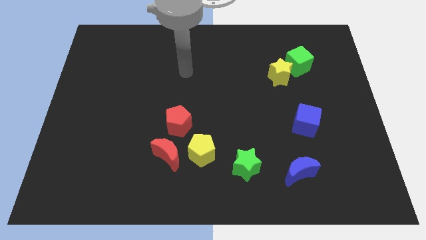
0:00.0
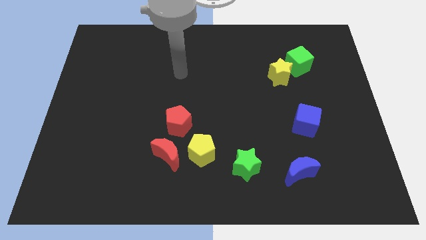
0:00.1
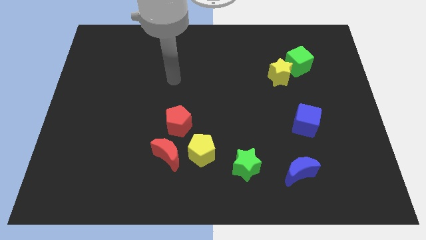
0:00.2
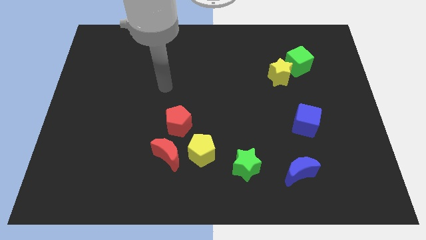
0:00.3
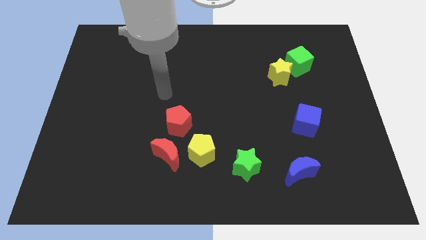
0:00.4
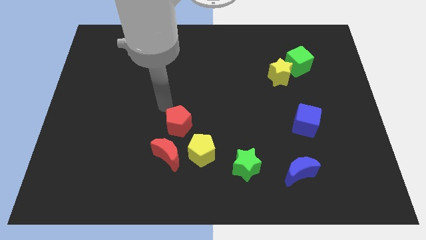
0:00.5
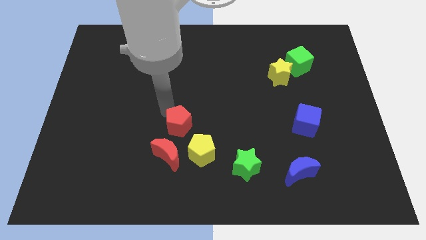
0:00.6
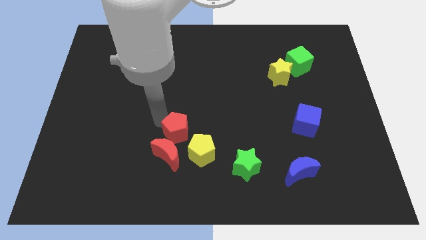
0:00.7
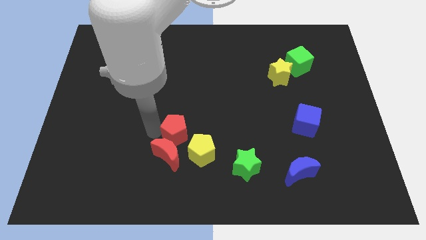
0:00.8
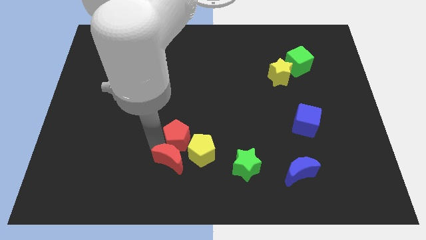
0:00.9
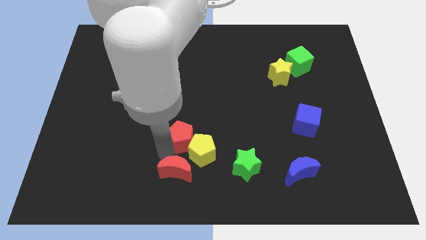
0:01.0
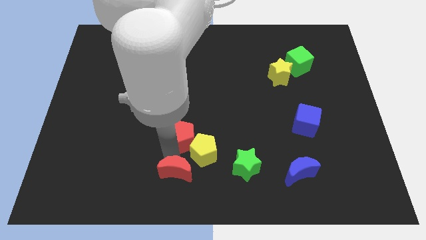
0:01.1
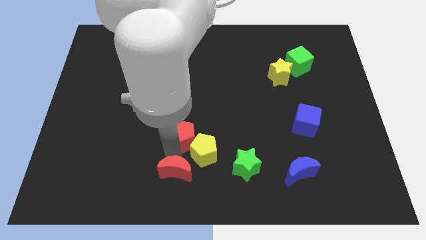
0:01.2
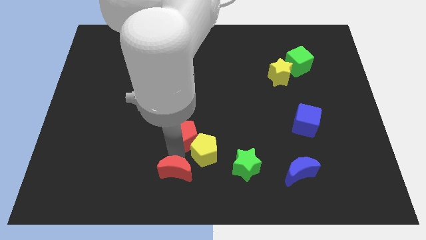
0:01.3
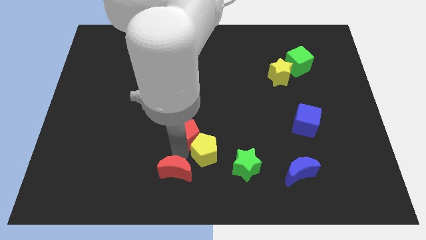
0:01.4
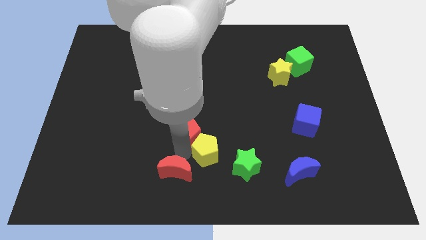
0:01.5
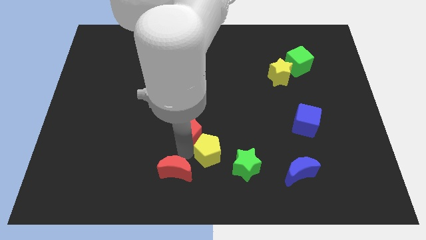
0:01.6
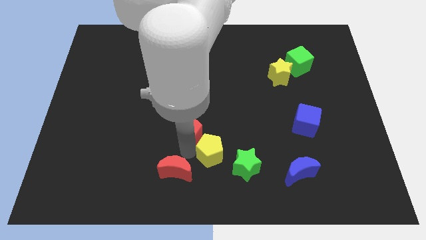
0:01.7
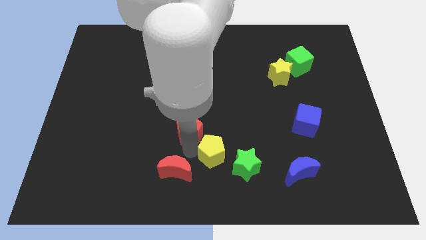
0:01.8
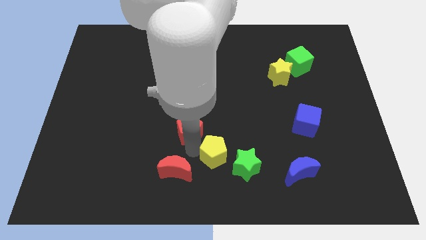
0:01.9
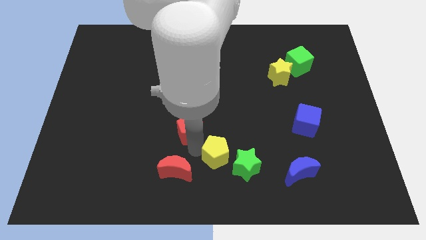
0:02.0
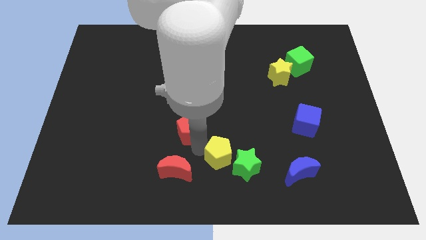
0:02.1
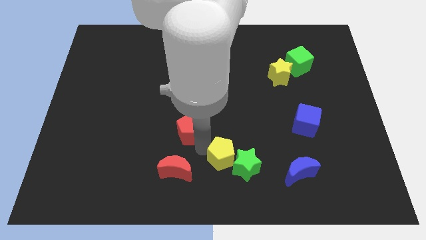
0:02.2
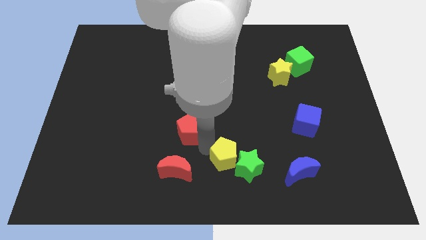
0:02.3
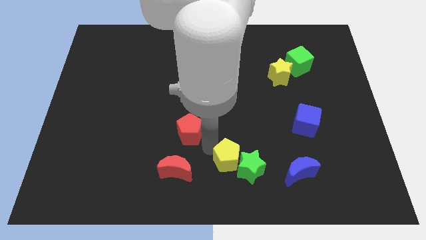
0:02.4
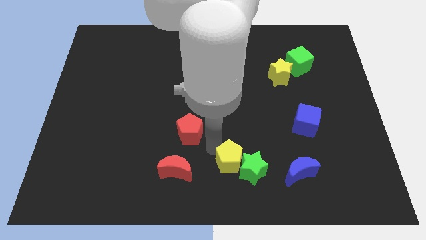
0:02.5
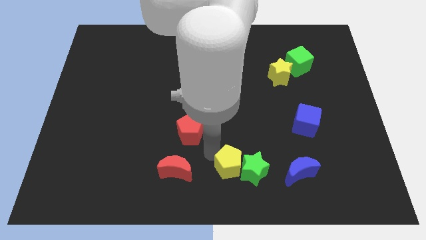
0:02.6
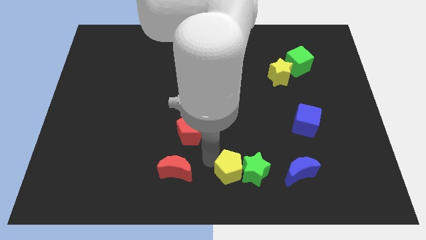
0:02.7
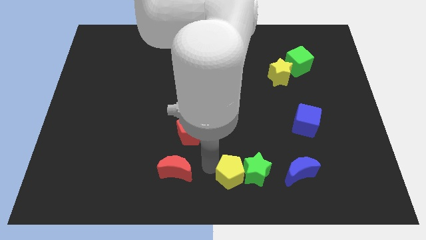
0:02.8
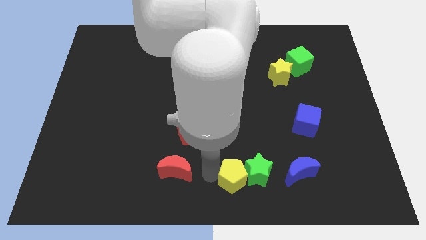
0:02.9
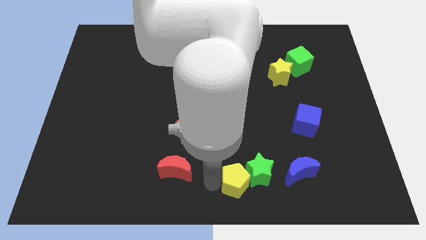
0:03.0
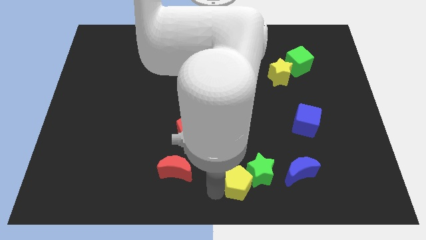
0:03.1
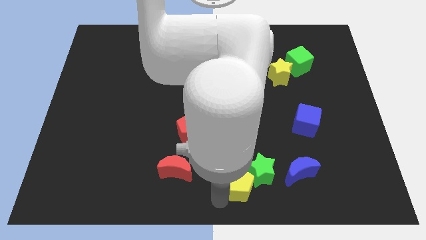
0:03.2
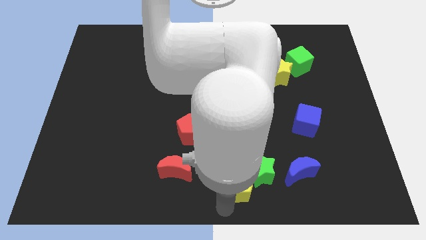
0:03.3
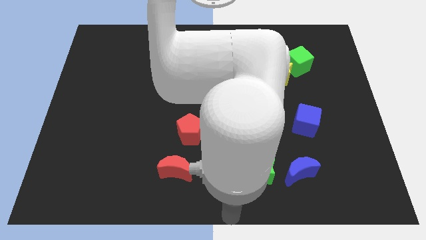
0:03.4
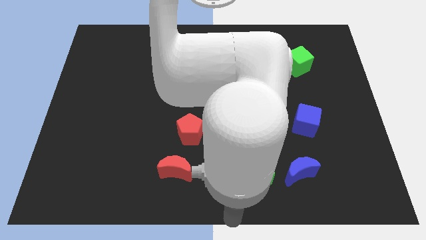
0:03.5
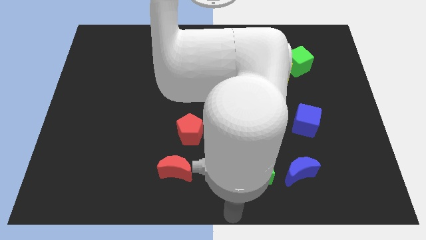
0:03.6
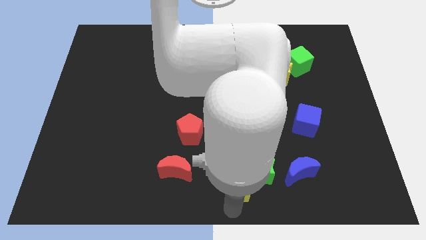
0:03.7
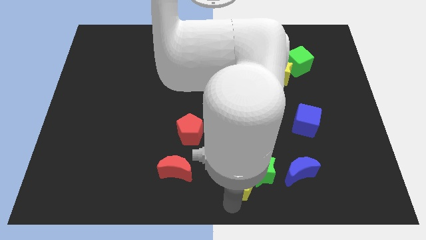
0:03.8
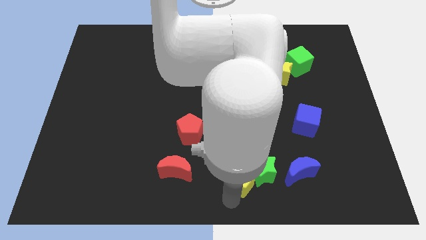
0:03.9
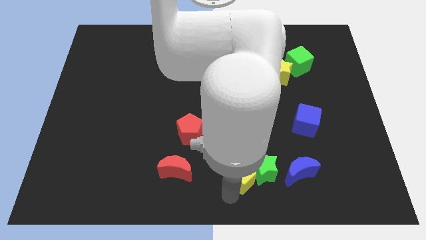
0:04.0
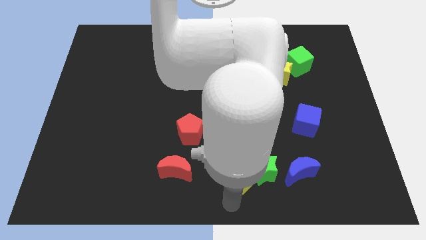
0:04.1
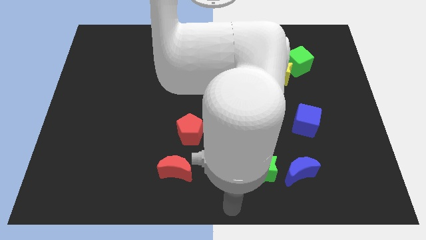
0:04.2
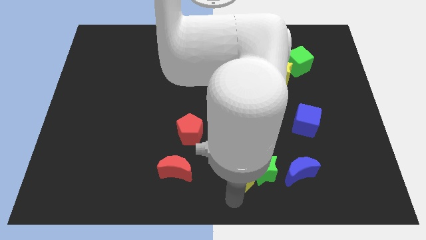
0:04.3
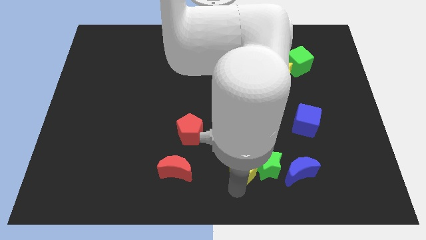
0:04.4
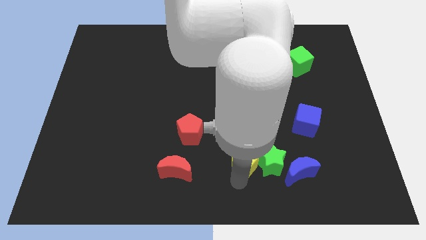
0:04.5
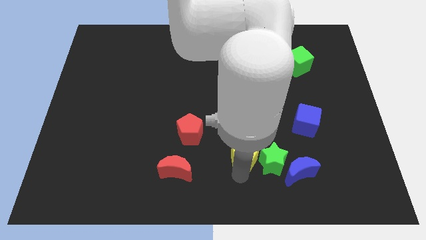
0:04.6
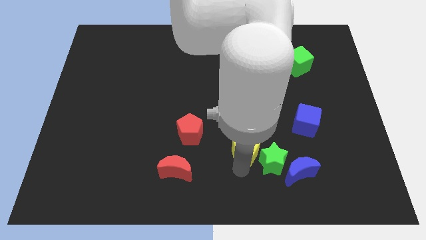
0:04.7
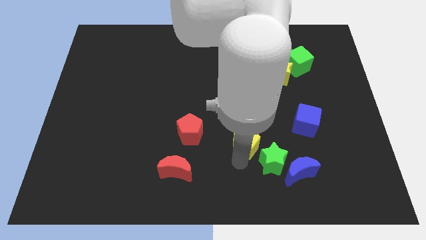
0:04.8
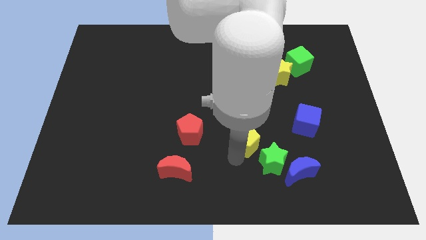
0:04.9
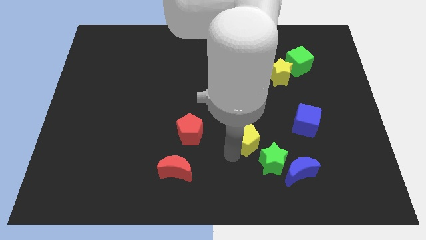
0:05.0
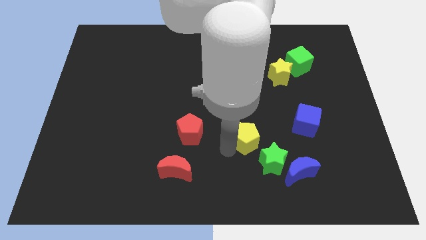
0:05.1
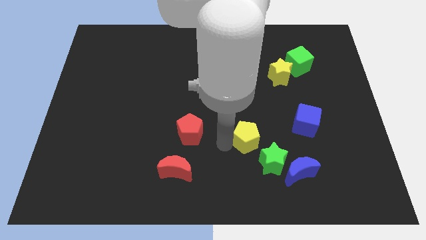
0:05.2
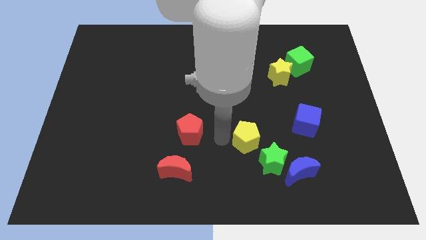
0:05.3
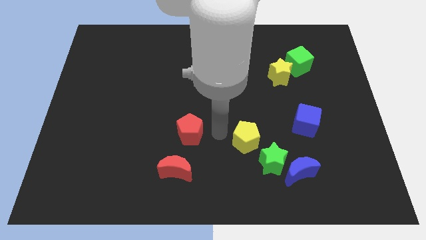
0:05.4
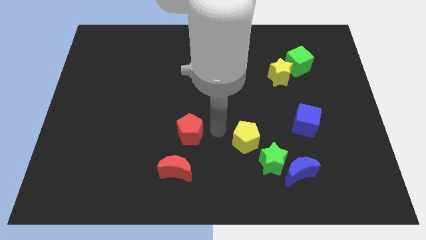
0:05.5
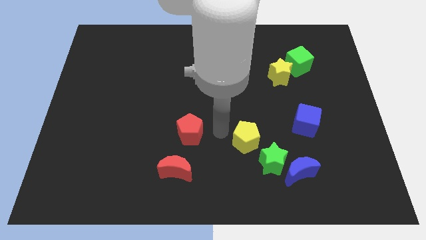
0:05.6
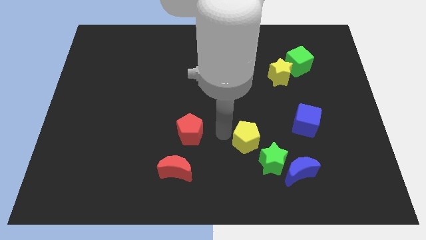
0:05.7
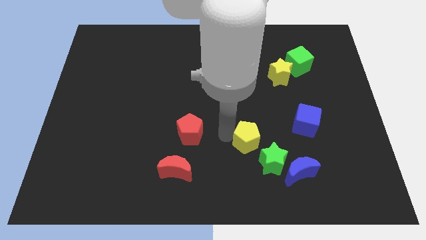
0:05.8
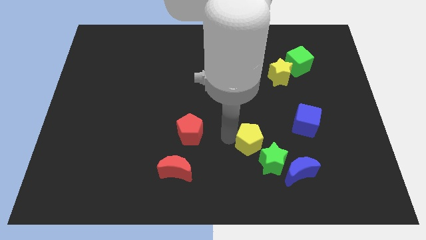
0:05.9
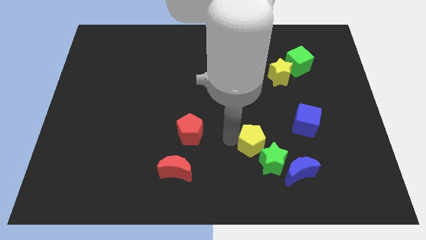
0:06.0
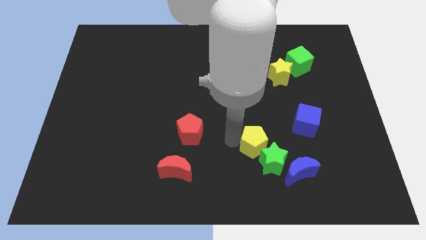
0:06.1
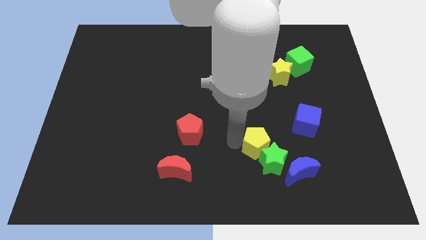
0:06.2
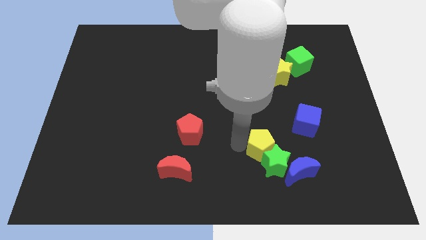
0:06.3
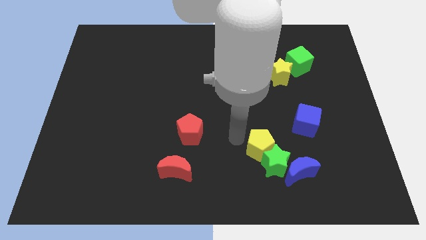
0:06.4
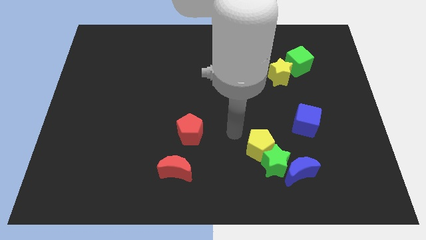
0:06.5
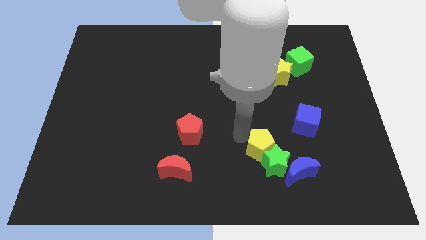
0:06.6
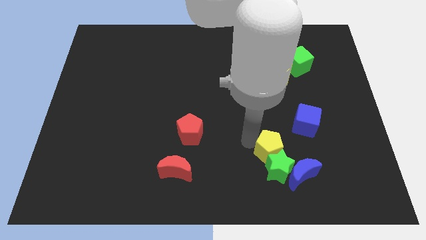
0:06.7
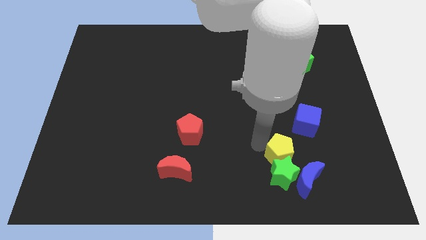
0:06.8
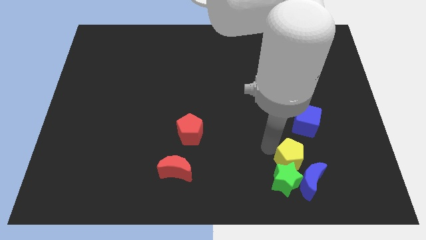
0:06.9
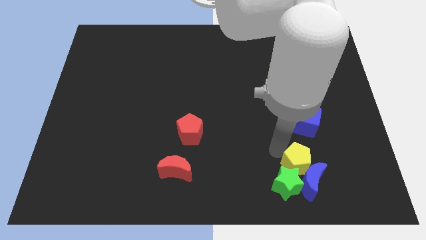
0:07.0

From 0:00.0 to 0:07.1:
slide the yellow pentagon next to the blue moon

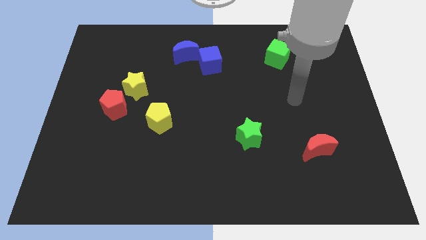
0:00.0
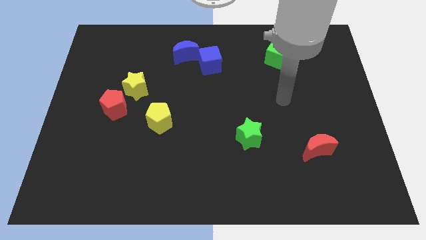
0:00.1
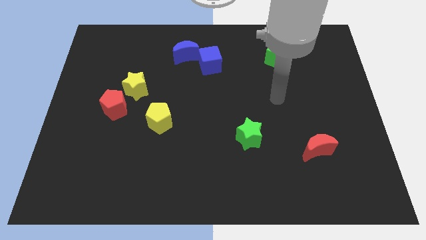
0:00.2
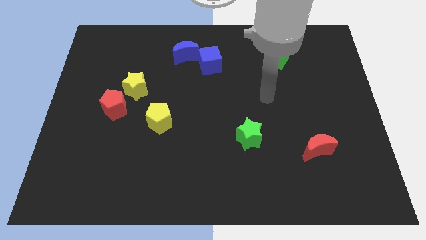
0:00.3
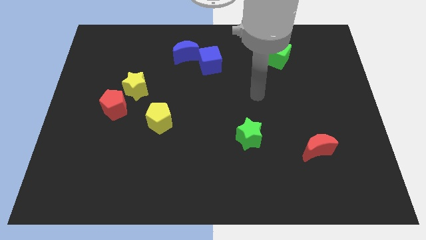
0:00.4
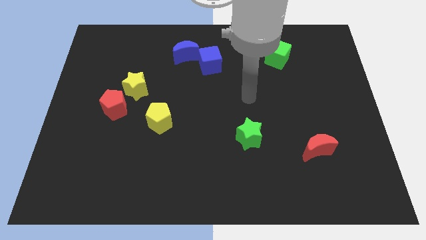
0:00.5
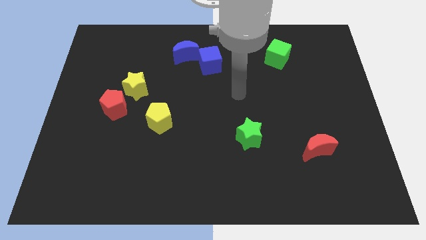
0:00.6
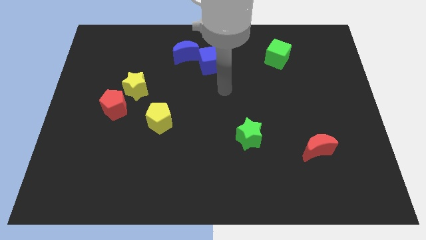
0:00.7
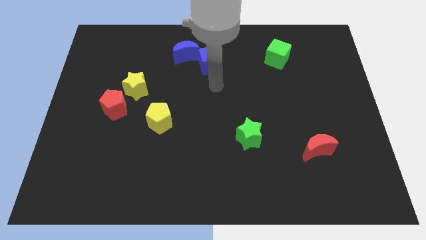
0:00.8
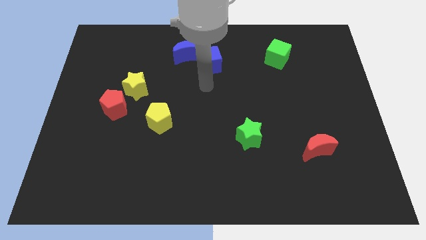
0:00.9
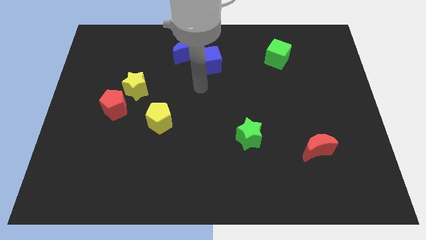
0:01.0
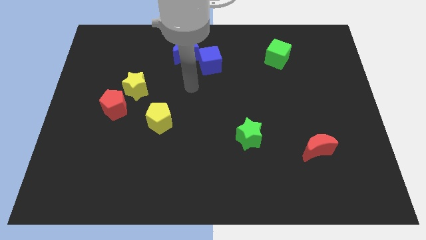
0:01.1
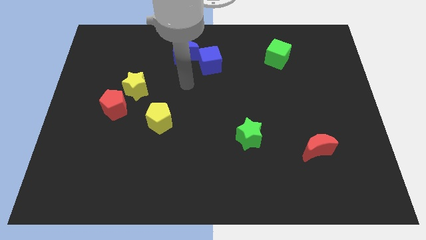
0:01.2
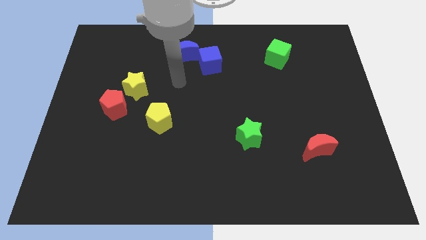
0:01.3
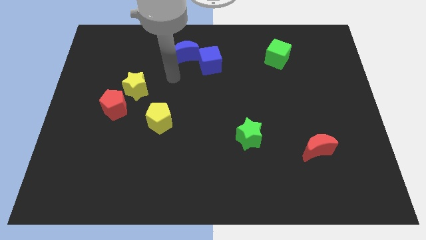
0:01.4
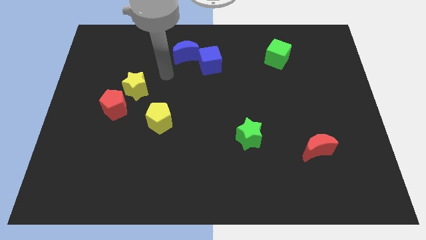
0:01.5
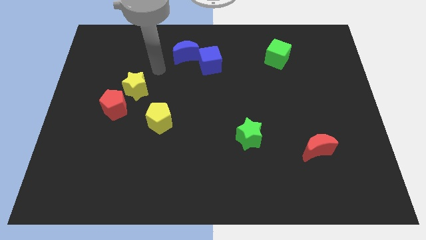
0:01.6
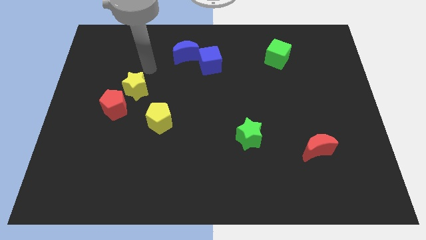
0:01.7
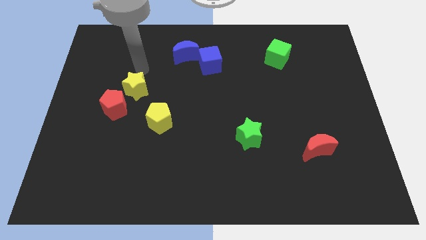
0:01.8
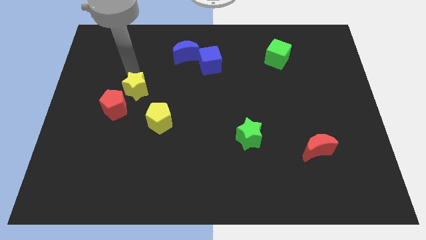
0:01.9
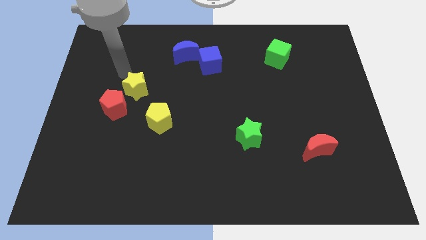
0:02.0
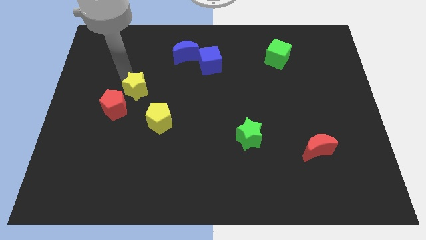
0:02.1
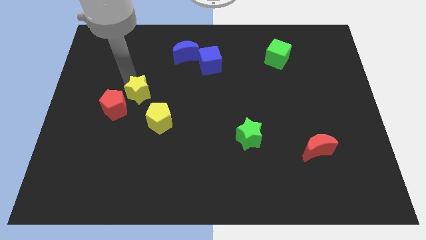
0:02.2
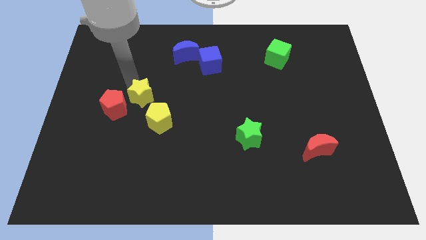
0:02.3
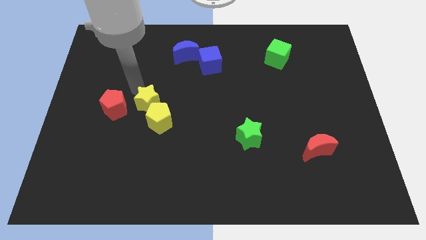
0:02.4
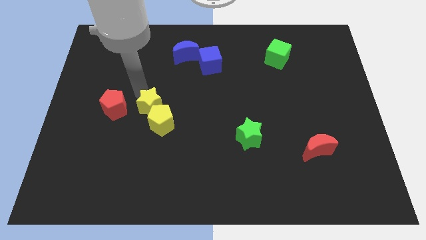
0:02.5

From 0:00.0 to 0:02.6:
move the yellow star to the yellow pentagon
